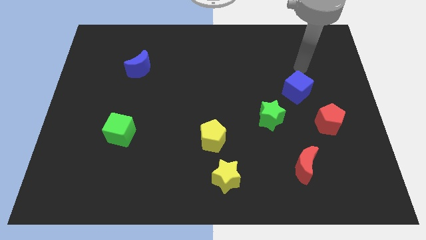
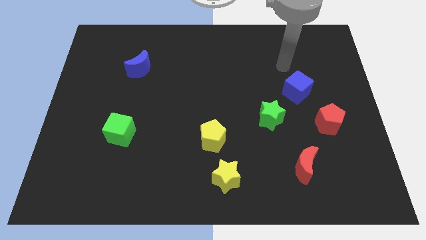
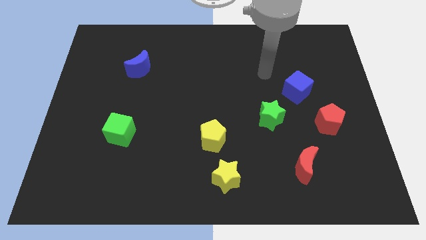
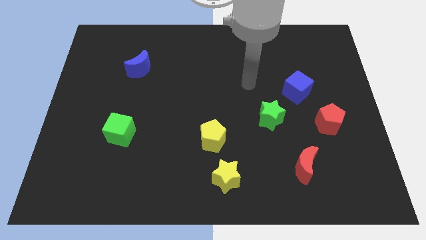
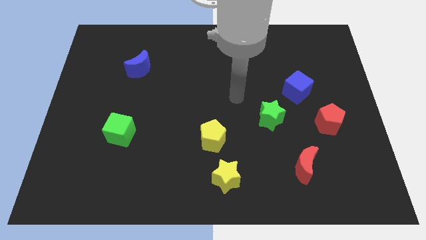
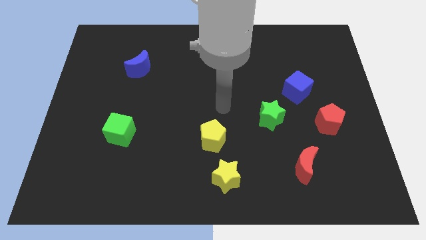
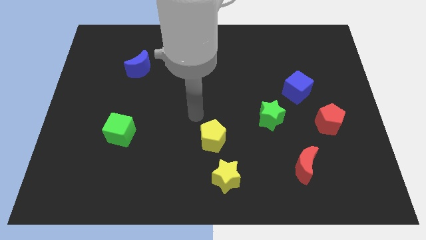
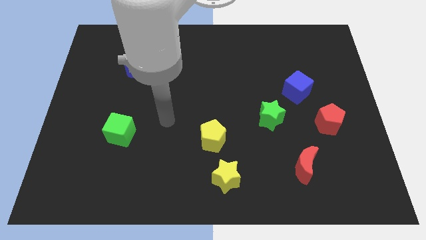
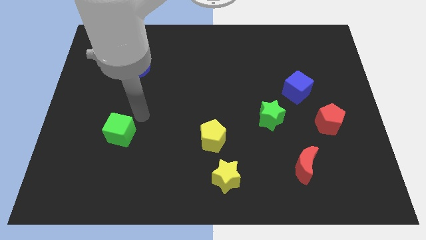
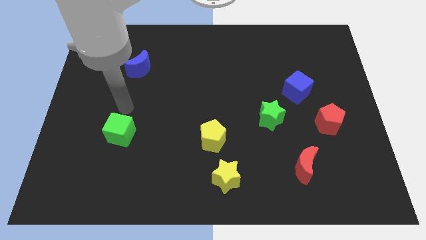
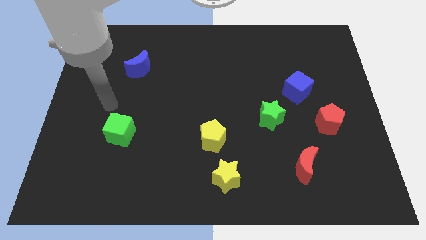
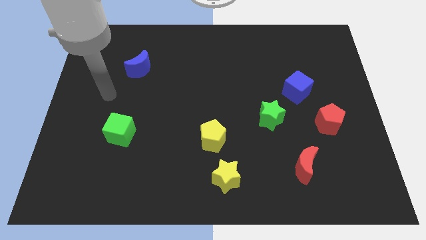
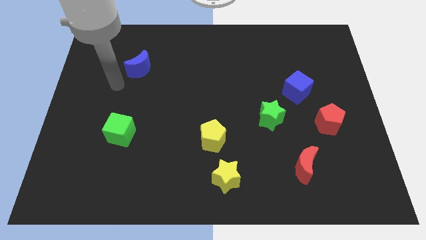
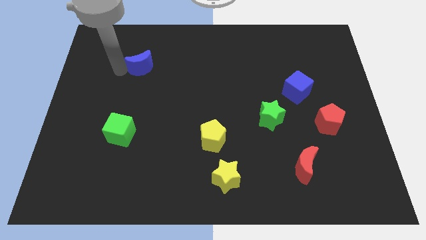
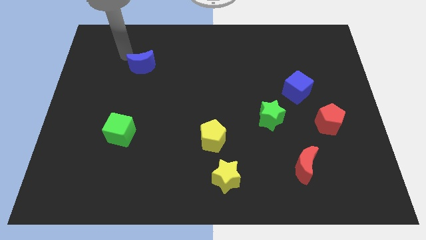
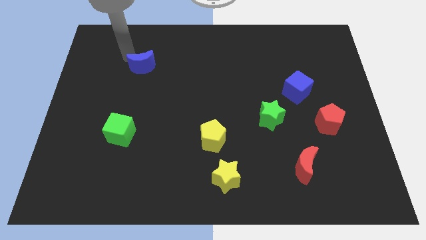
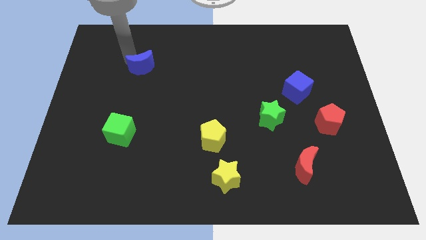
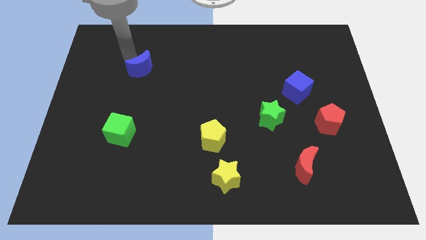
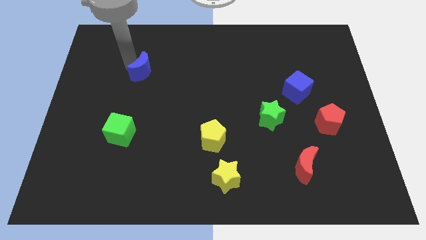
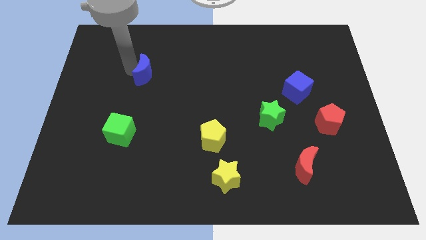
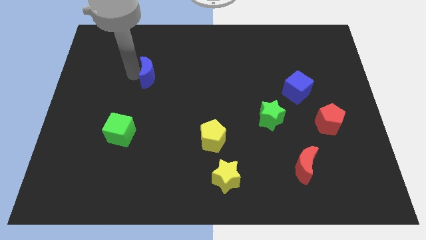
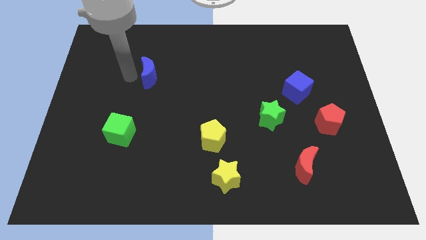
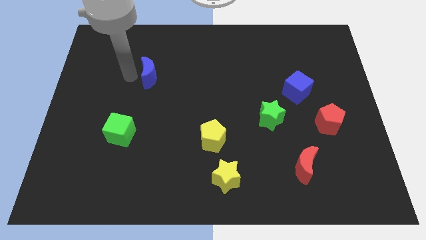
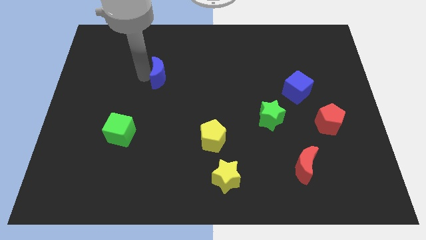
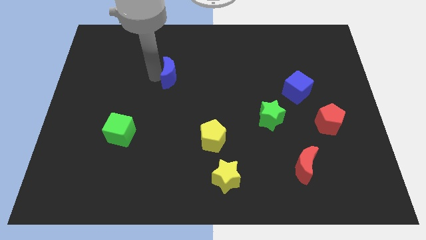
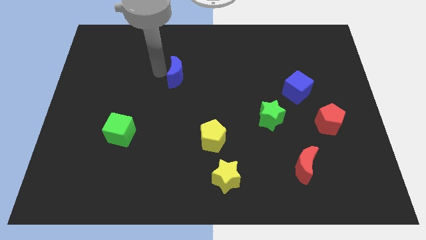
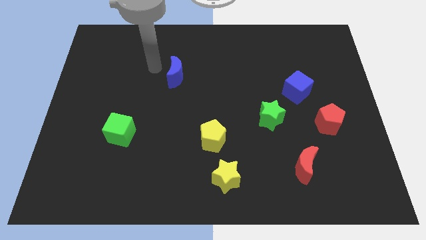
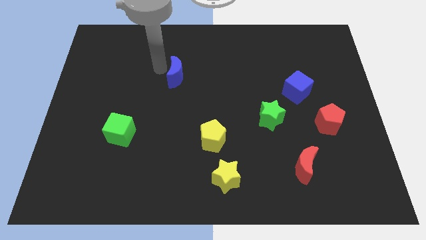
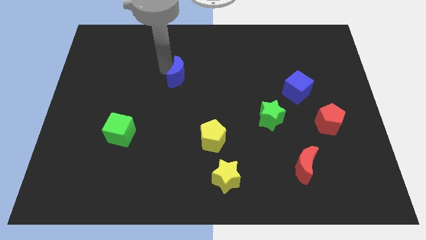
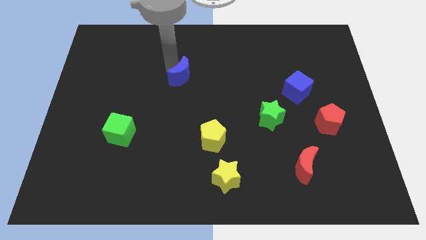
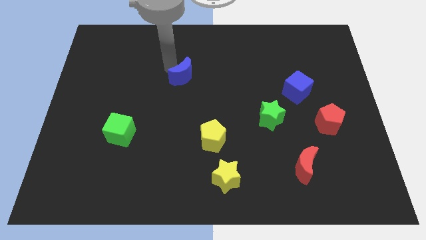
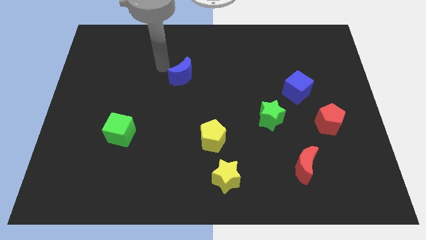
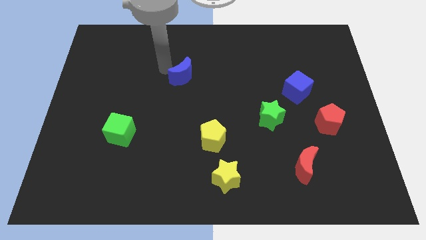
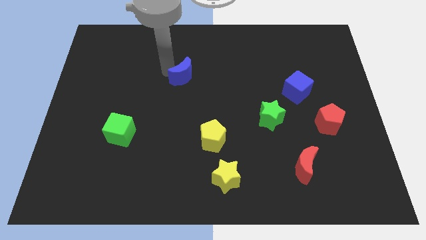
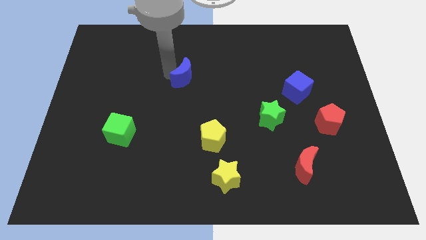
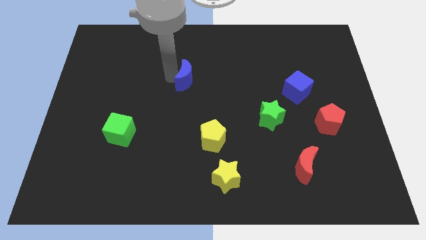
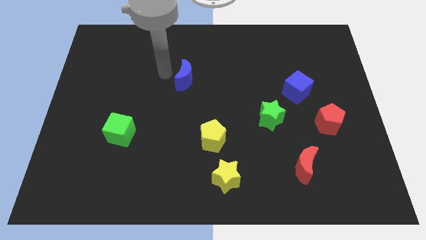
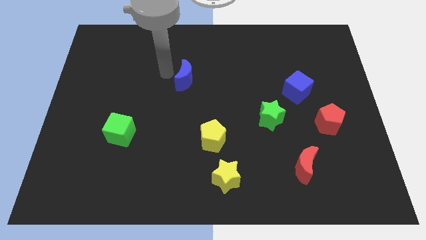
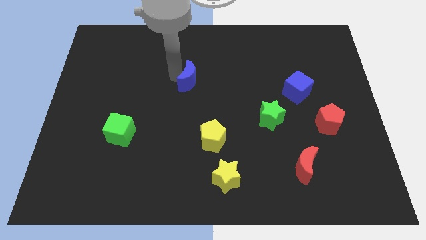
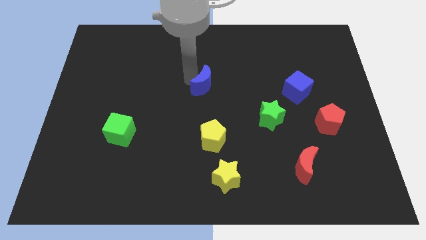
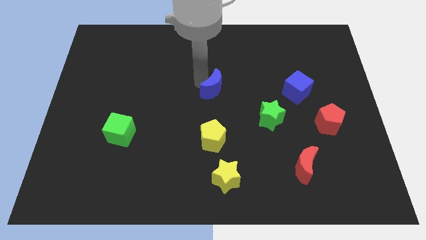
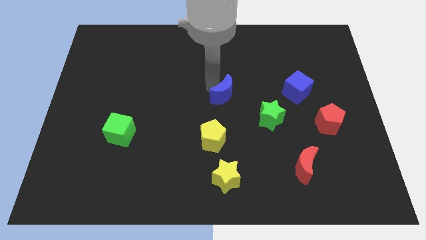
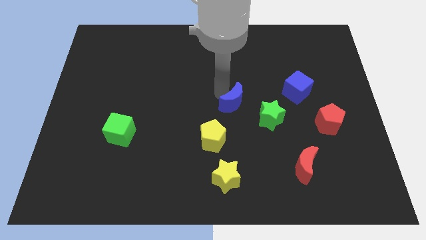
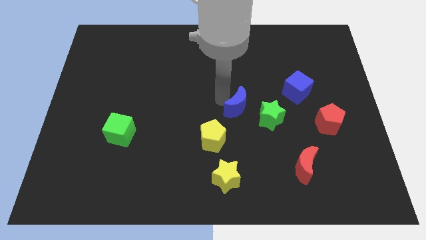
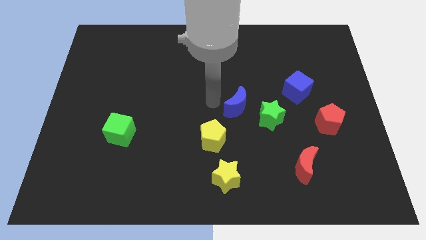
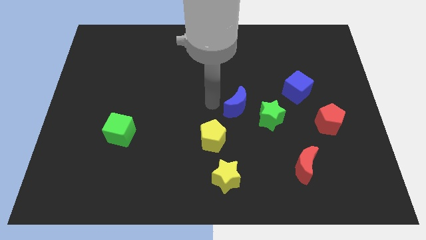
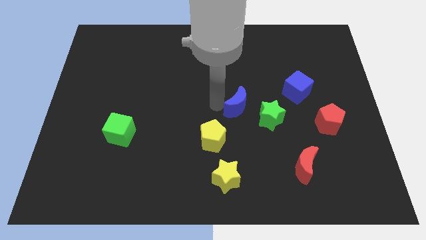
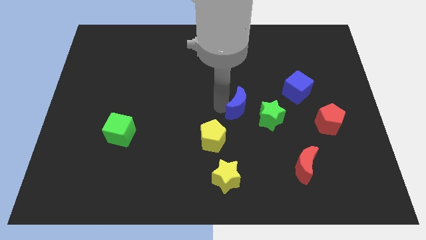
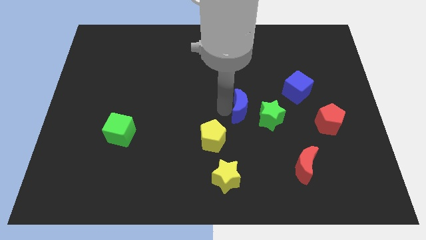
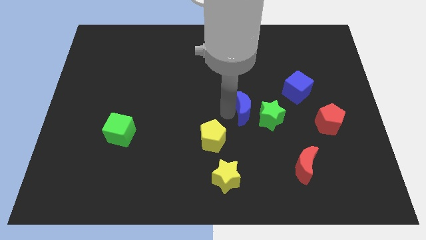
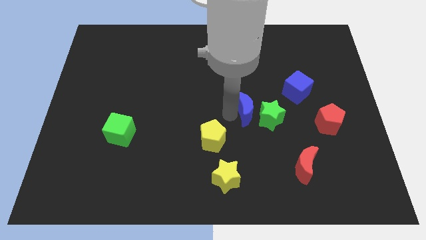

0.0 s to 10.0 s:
move the blue moon towards the green star

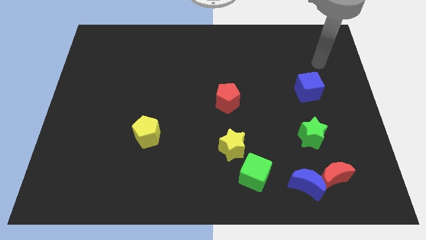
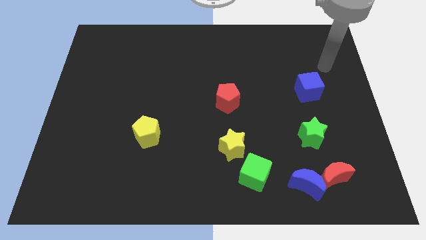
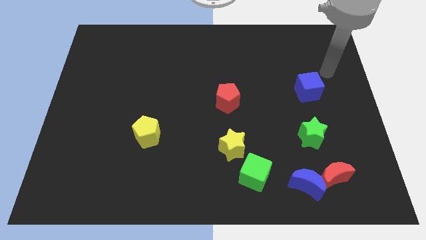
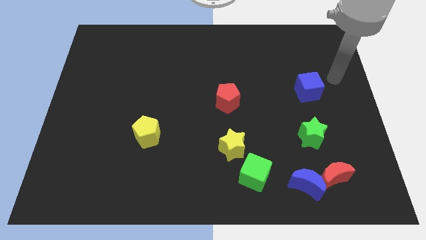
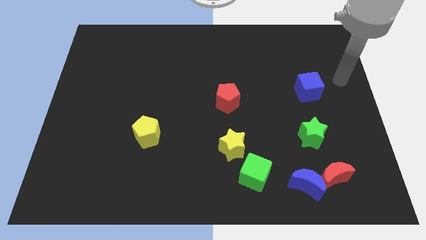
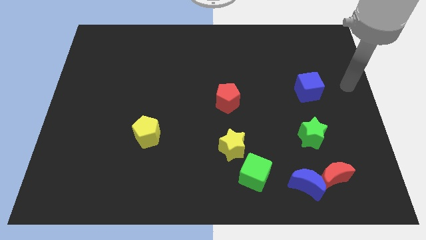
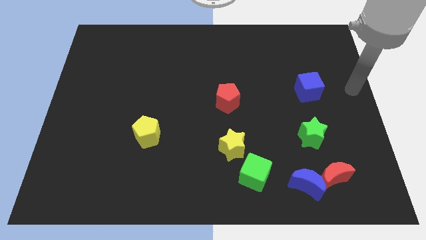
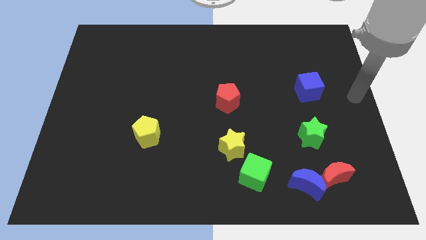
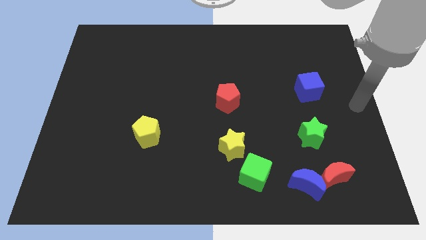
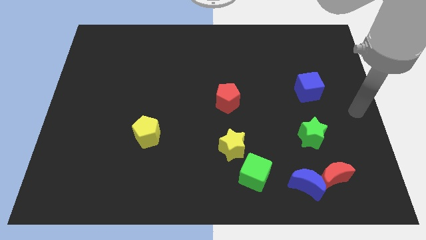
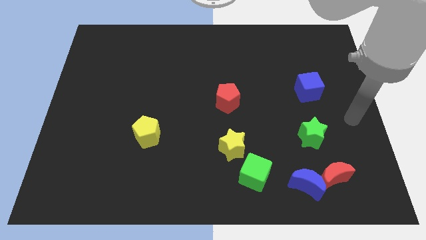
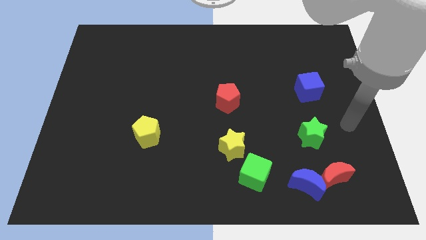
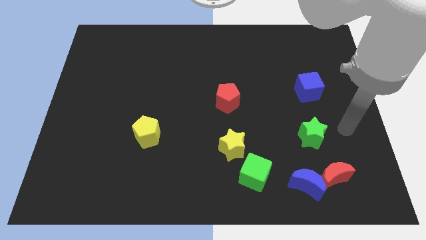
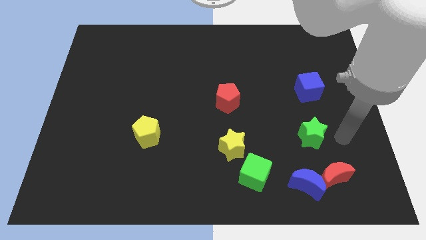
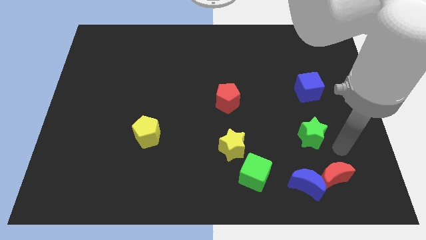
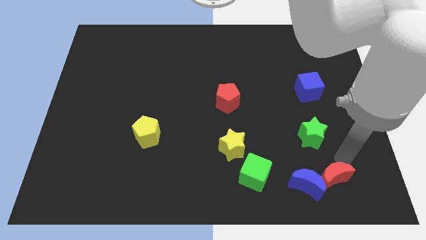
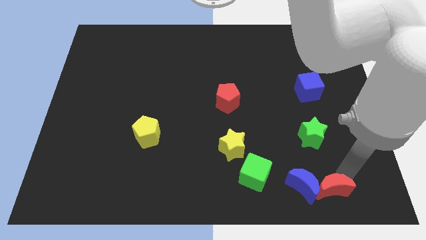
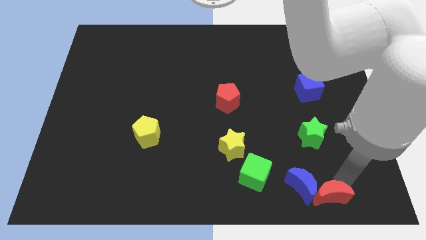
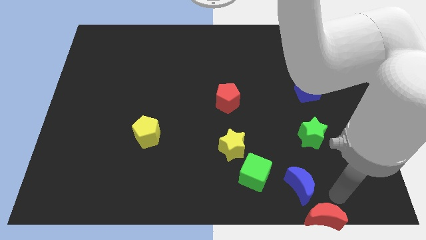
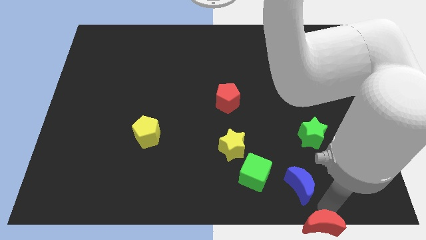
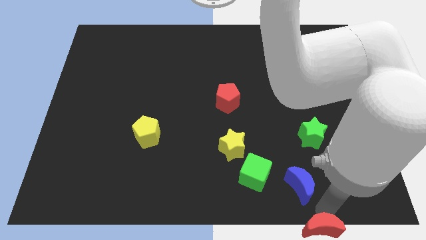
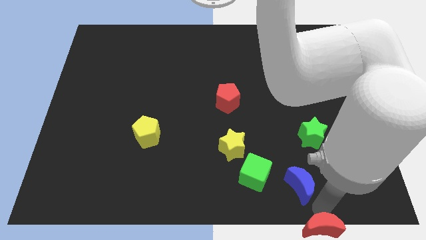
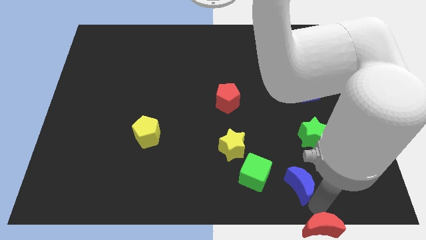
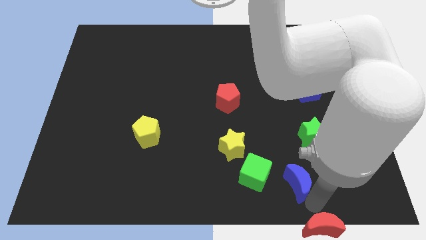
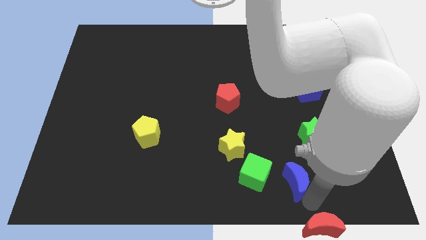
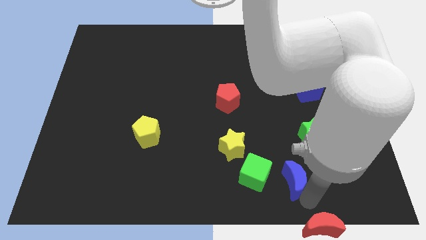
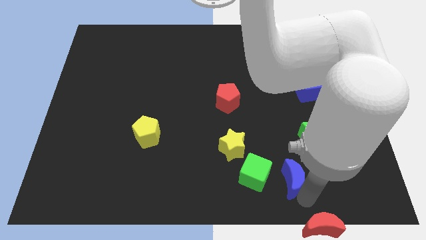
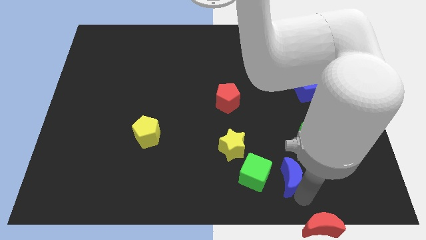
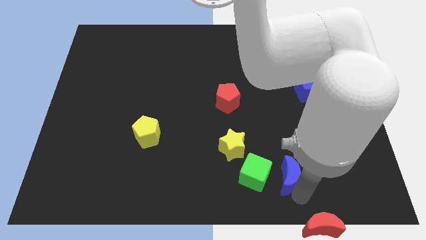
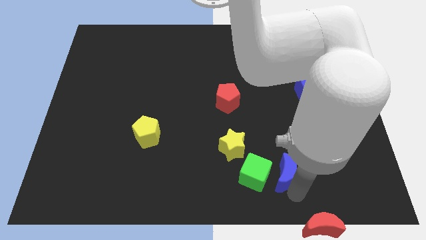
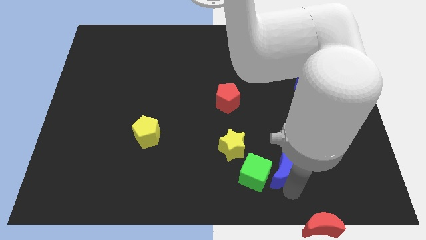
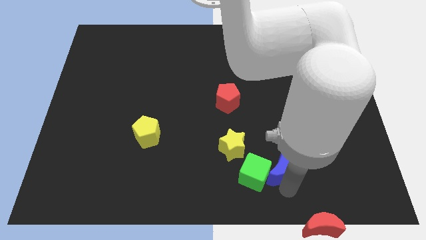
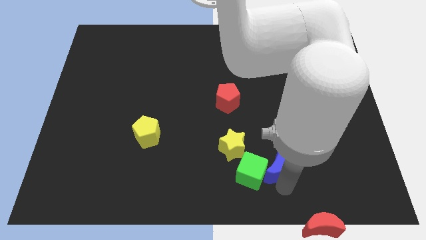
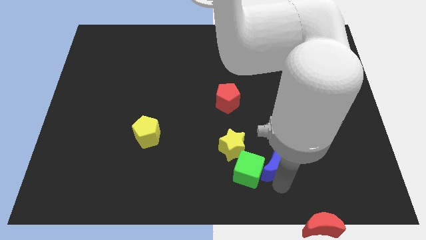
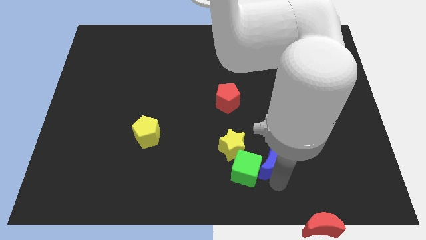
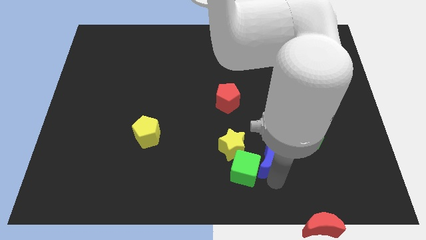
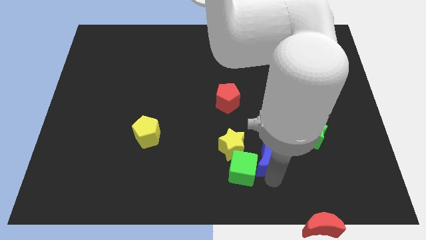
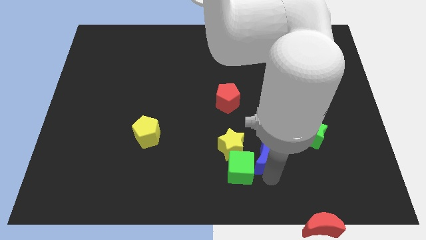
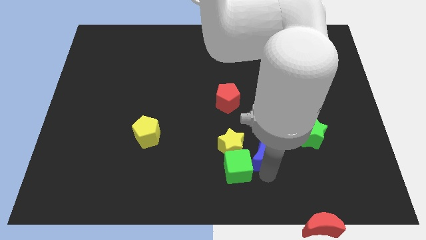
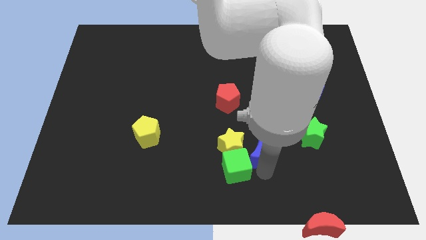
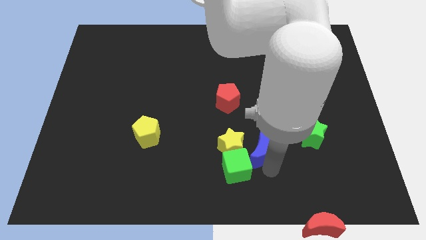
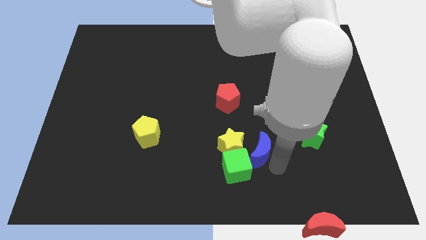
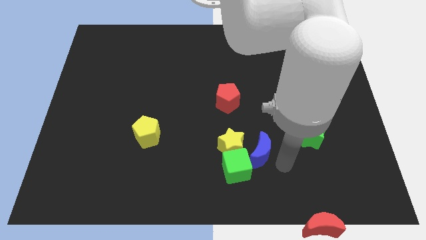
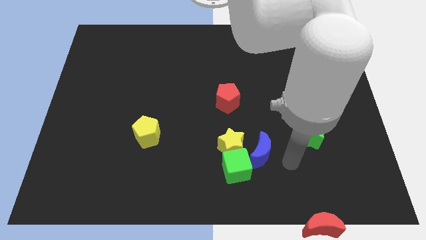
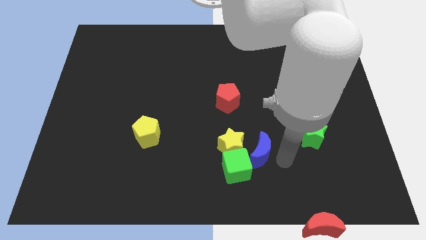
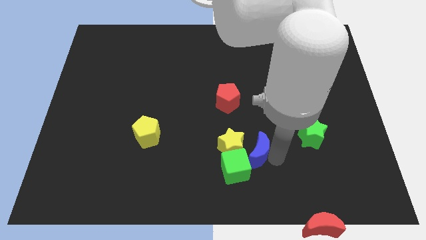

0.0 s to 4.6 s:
push the blue moon close to the yellow star
